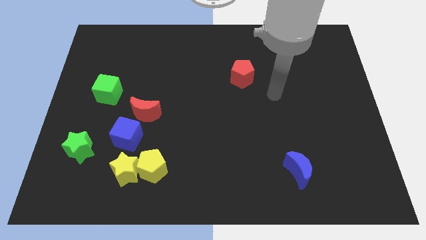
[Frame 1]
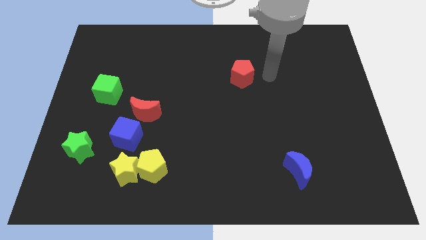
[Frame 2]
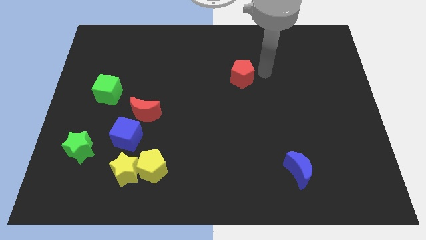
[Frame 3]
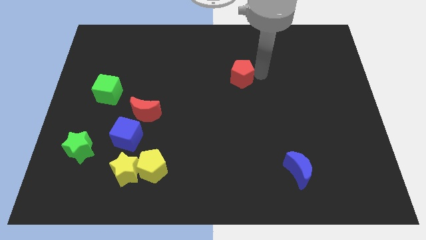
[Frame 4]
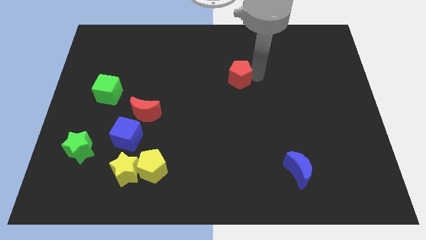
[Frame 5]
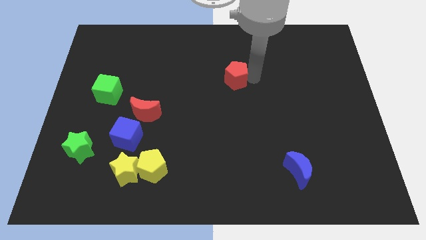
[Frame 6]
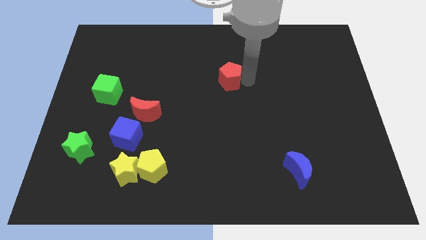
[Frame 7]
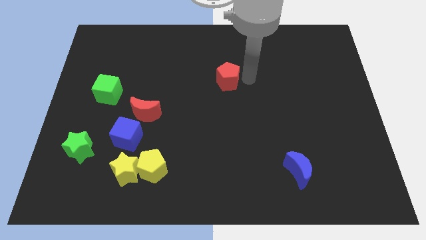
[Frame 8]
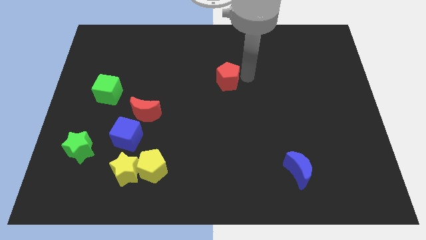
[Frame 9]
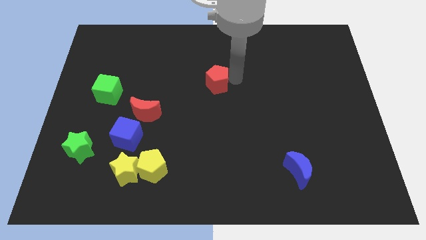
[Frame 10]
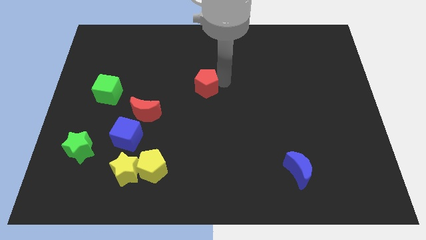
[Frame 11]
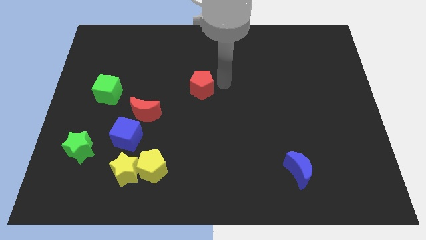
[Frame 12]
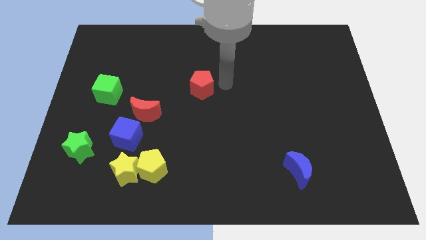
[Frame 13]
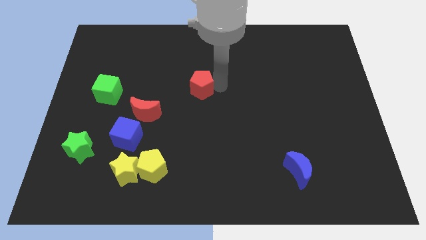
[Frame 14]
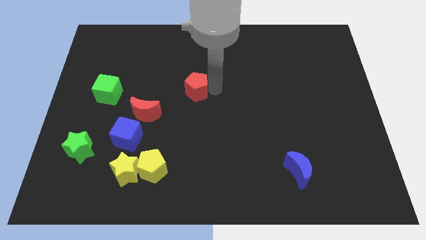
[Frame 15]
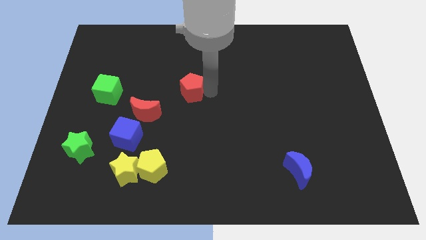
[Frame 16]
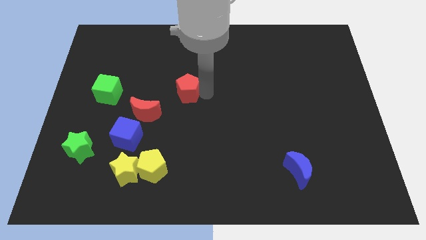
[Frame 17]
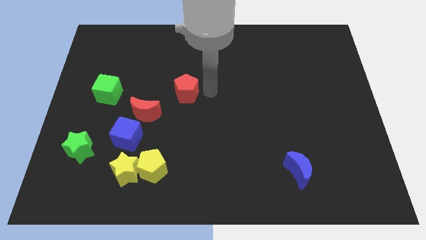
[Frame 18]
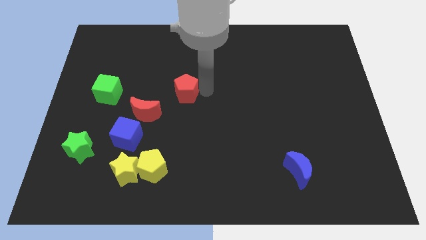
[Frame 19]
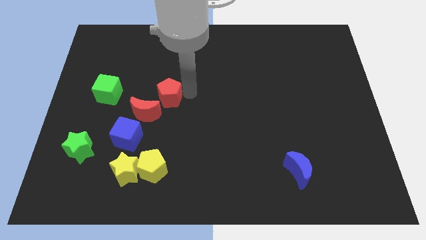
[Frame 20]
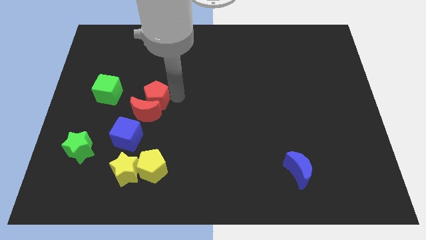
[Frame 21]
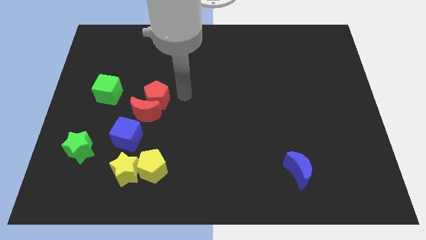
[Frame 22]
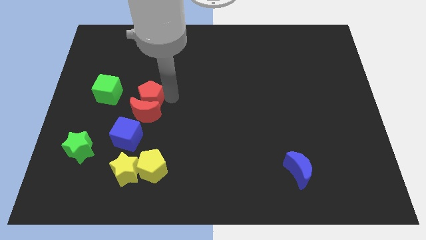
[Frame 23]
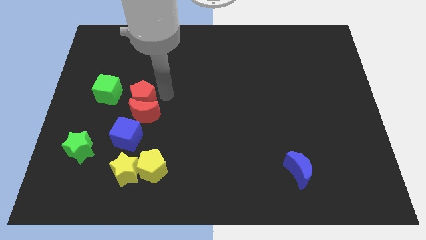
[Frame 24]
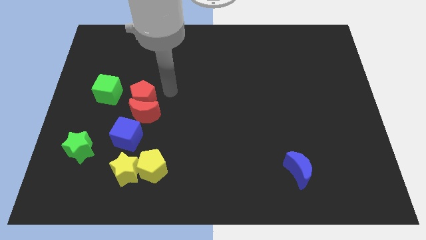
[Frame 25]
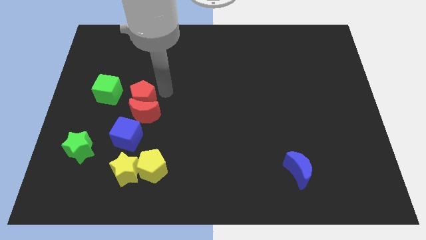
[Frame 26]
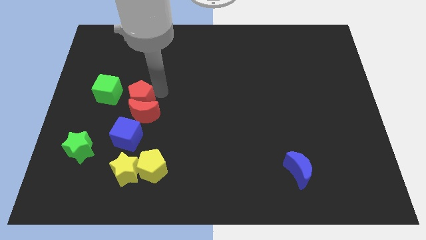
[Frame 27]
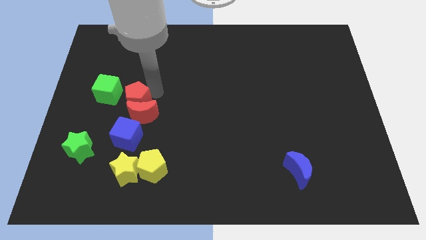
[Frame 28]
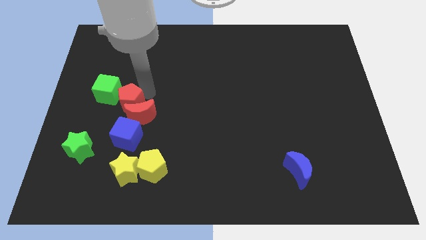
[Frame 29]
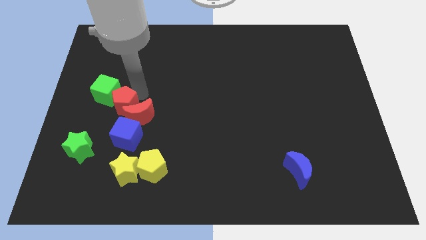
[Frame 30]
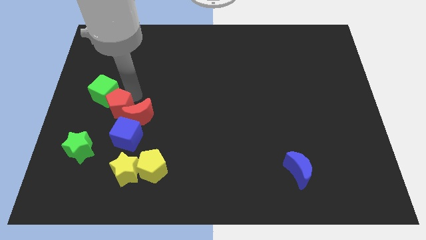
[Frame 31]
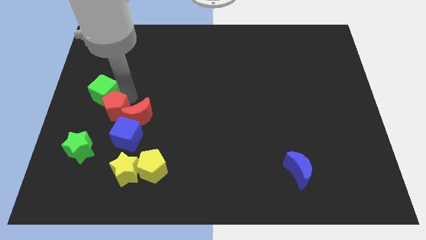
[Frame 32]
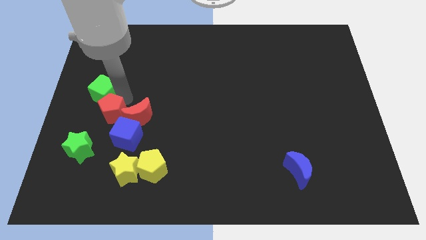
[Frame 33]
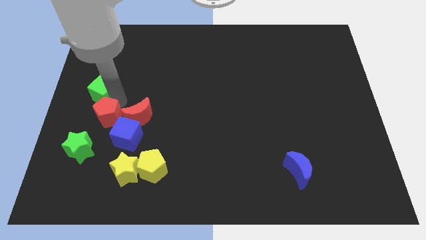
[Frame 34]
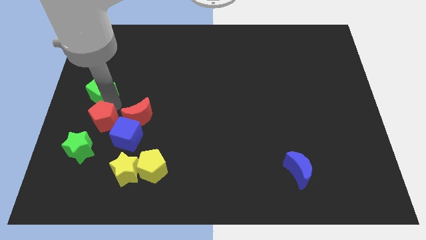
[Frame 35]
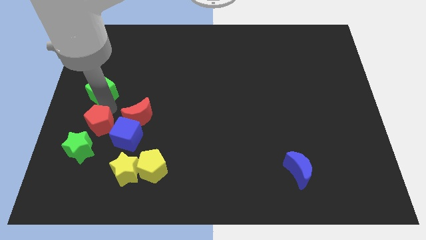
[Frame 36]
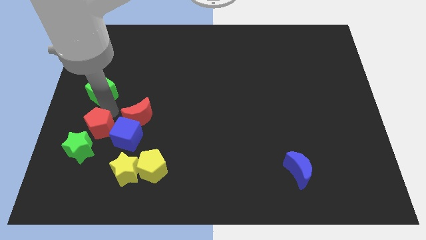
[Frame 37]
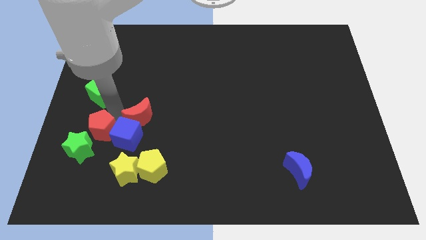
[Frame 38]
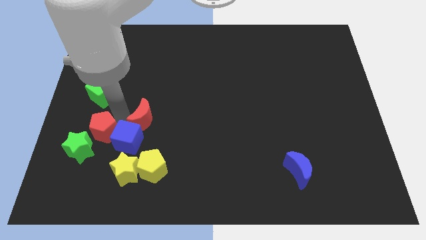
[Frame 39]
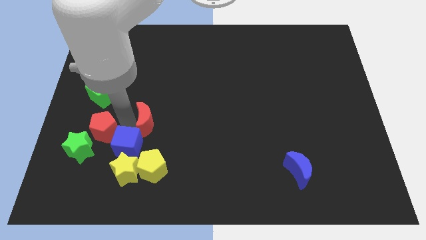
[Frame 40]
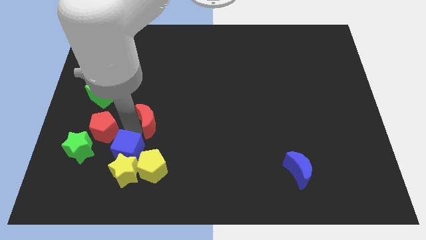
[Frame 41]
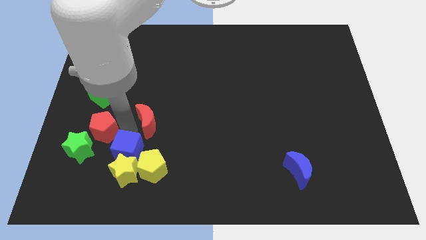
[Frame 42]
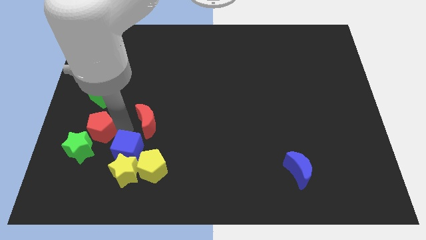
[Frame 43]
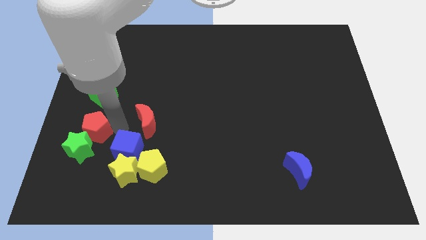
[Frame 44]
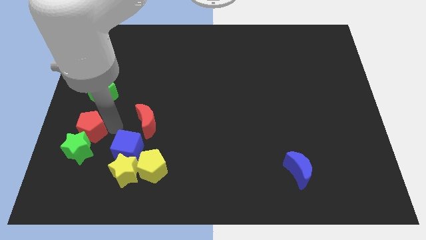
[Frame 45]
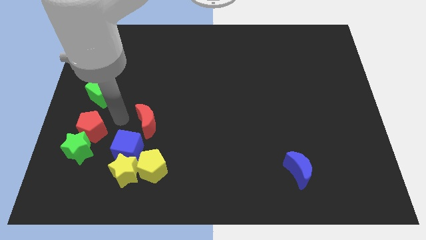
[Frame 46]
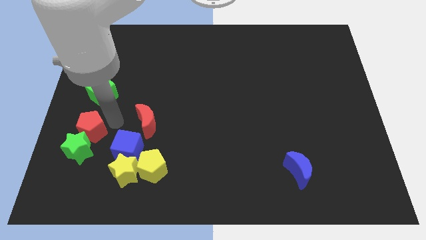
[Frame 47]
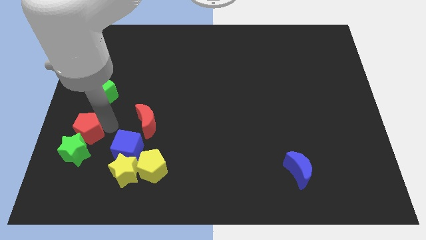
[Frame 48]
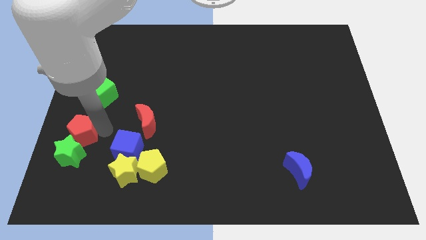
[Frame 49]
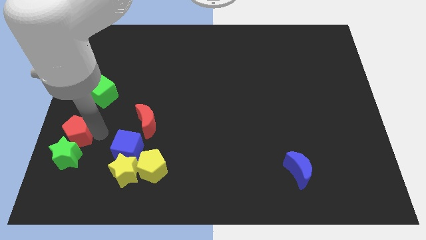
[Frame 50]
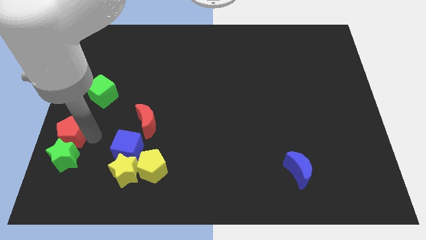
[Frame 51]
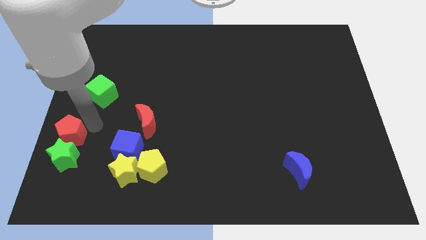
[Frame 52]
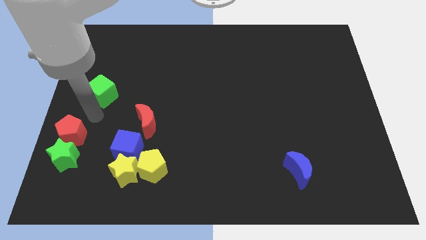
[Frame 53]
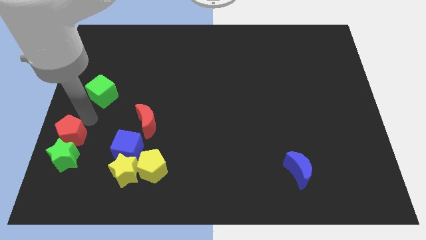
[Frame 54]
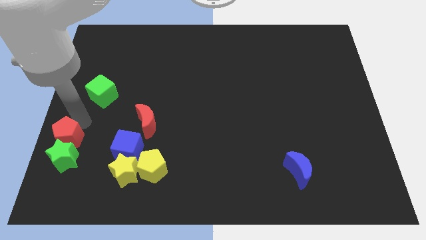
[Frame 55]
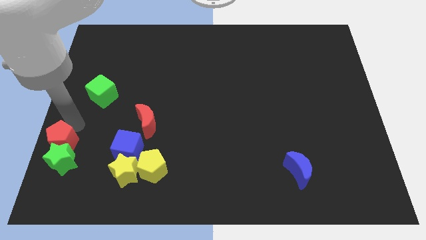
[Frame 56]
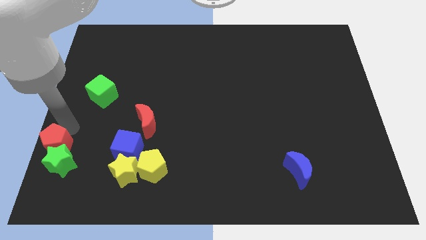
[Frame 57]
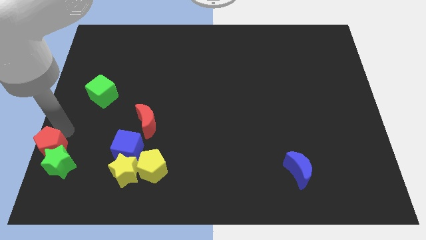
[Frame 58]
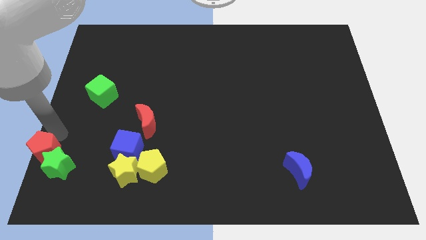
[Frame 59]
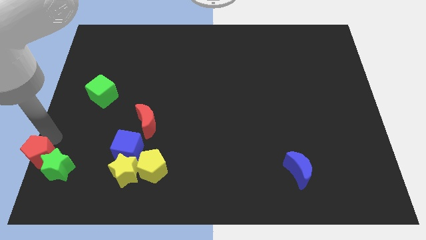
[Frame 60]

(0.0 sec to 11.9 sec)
push the red pentagon to the bottom left corner

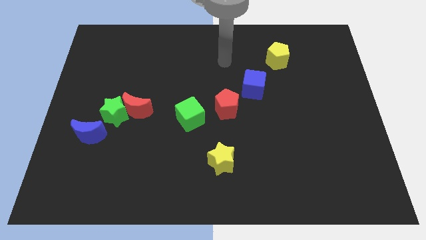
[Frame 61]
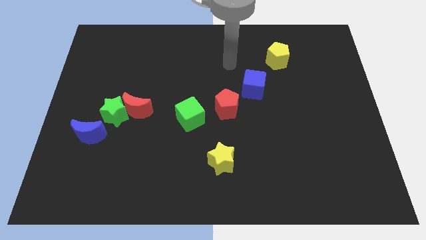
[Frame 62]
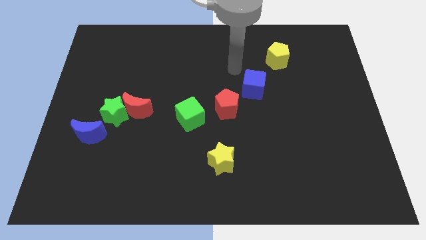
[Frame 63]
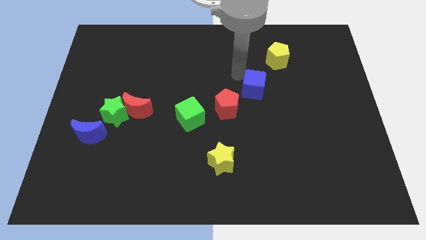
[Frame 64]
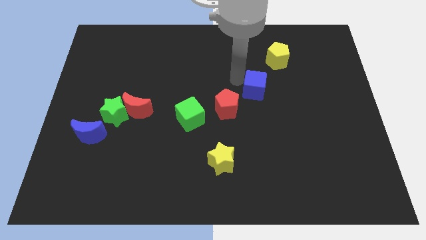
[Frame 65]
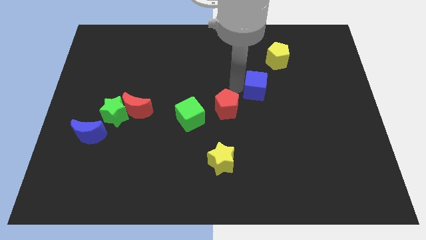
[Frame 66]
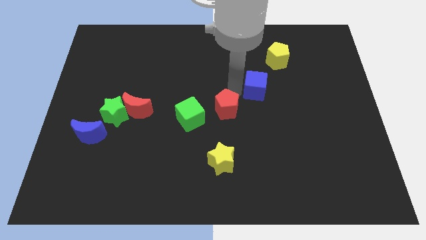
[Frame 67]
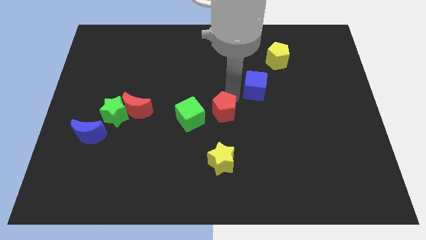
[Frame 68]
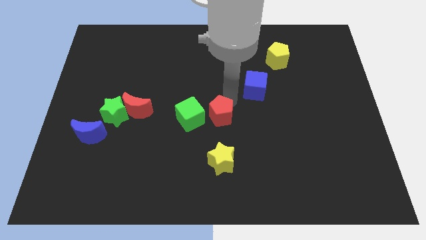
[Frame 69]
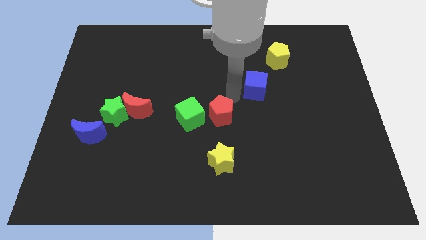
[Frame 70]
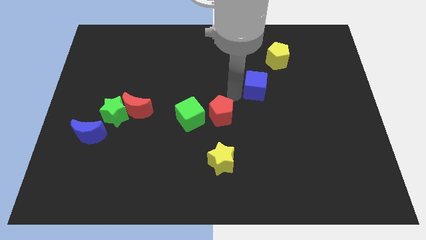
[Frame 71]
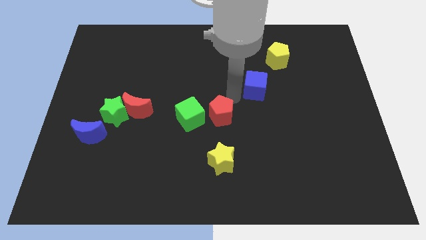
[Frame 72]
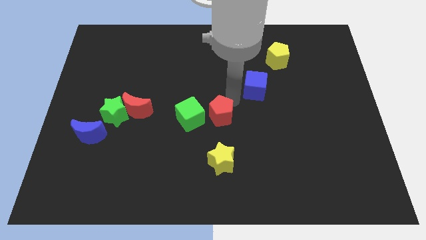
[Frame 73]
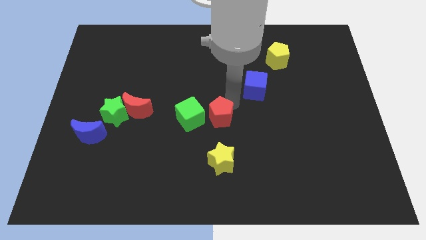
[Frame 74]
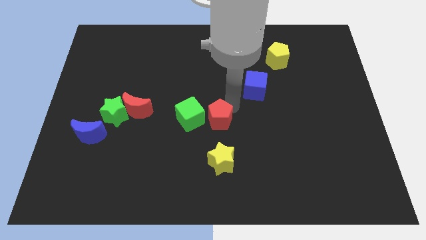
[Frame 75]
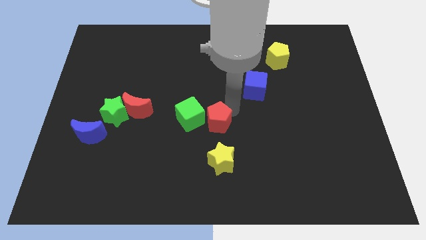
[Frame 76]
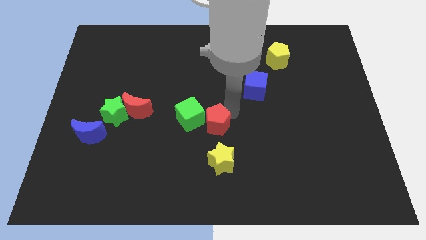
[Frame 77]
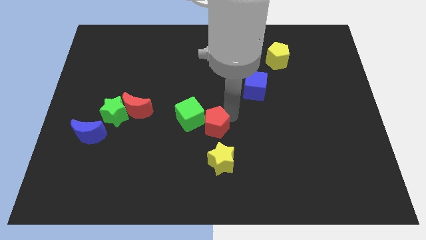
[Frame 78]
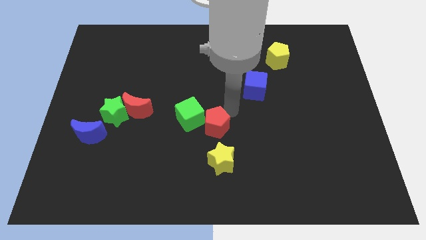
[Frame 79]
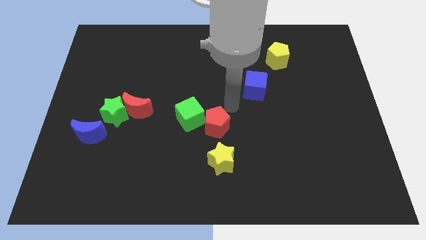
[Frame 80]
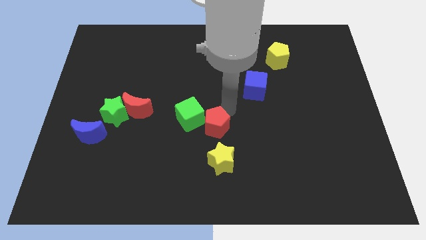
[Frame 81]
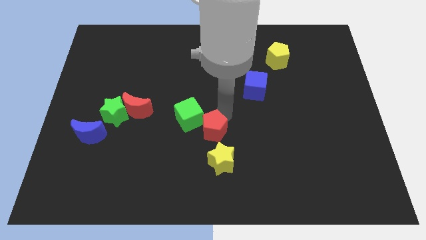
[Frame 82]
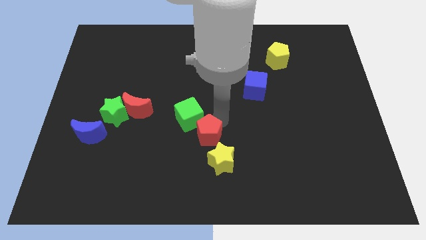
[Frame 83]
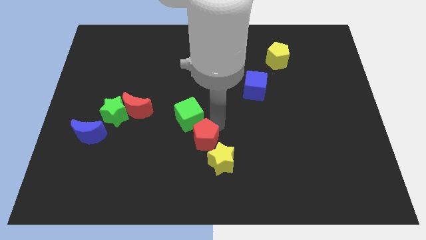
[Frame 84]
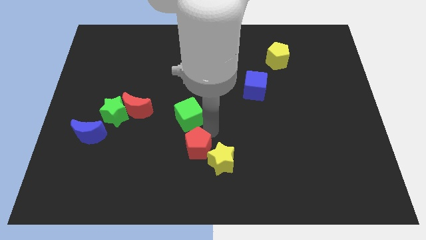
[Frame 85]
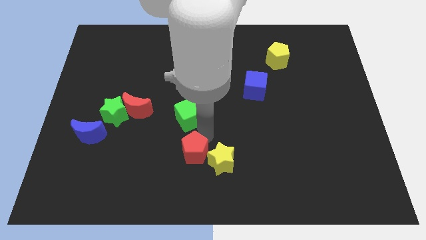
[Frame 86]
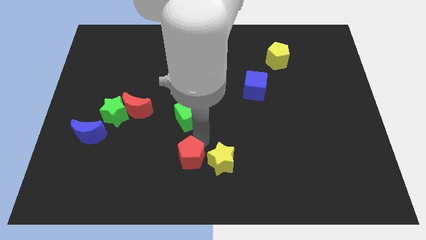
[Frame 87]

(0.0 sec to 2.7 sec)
move the red pentagon to the bottom side
